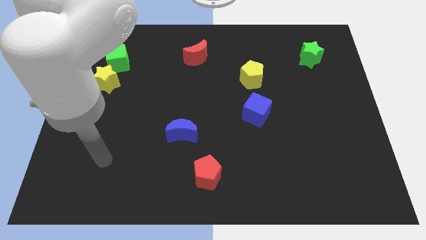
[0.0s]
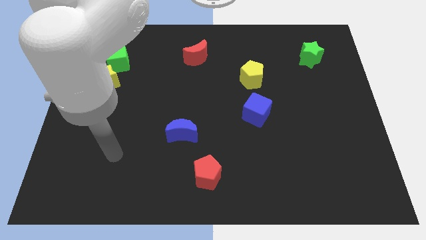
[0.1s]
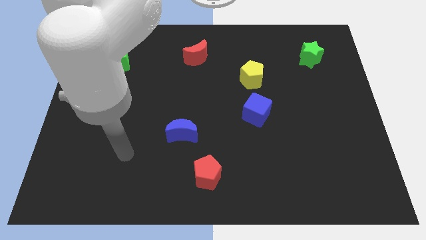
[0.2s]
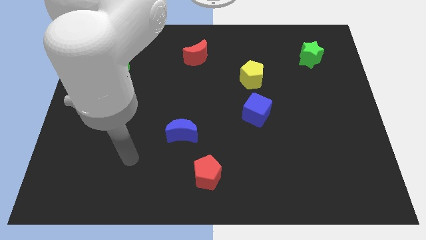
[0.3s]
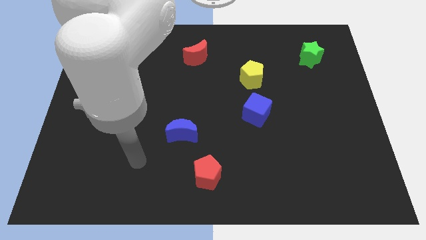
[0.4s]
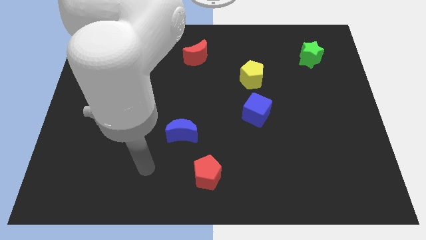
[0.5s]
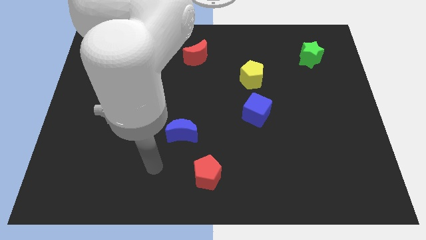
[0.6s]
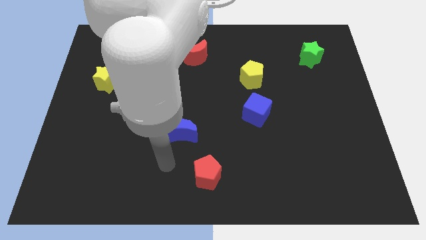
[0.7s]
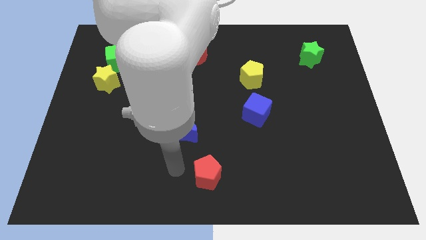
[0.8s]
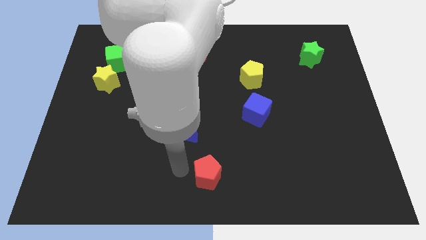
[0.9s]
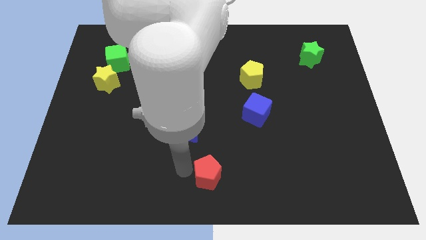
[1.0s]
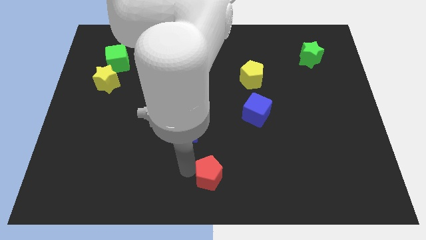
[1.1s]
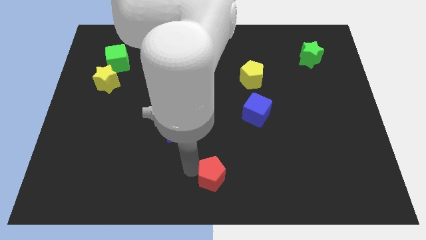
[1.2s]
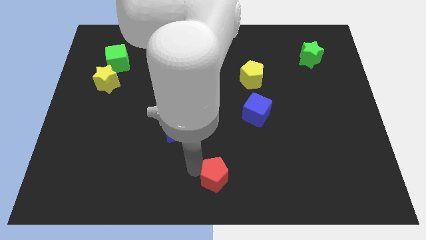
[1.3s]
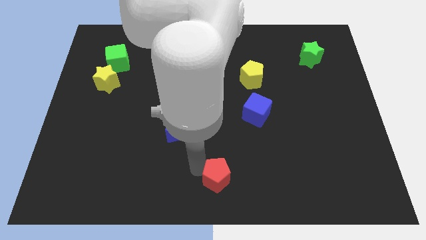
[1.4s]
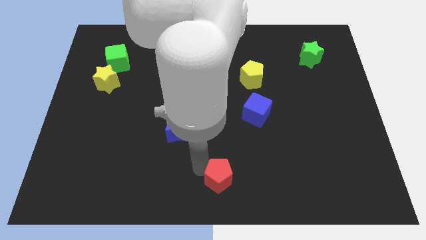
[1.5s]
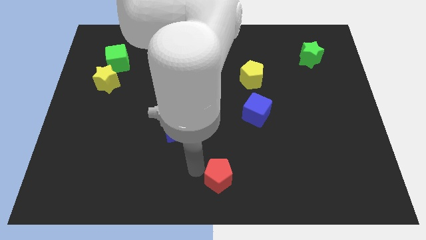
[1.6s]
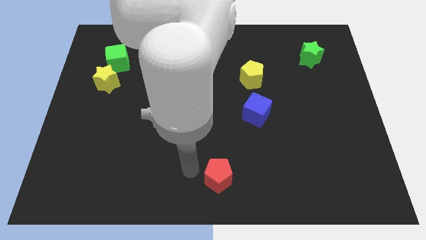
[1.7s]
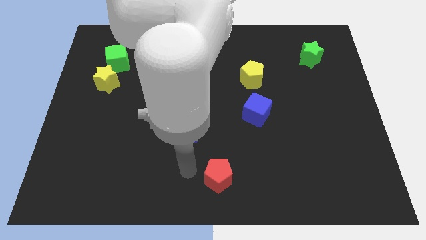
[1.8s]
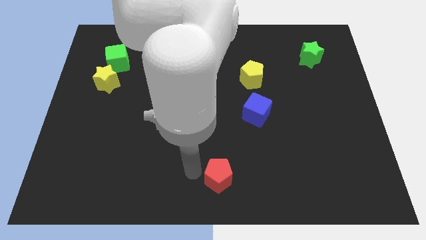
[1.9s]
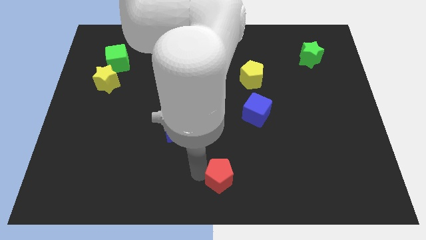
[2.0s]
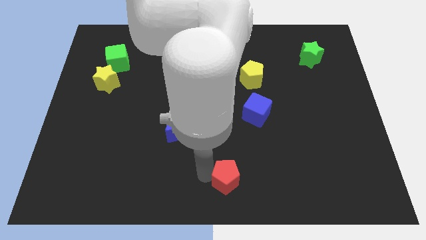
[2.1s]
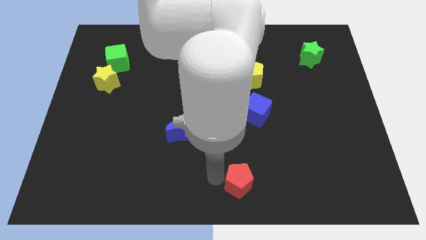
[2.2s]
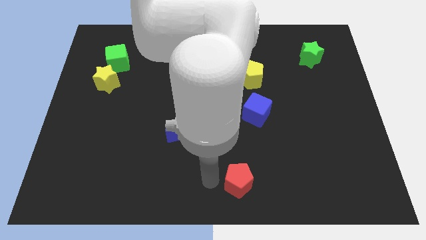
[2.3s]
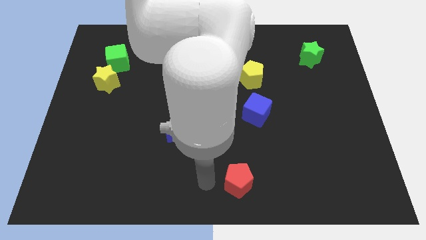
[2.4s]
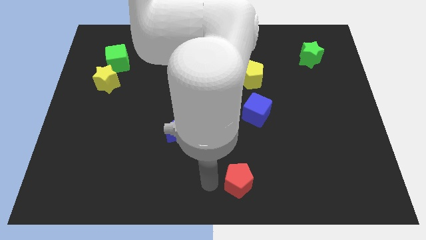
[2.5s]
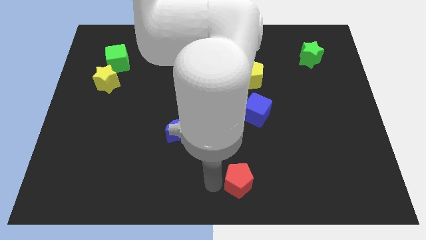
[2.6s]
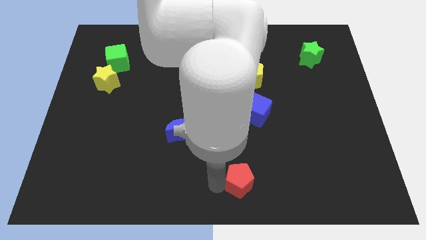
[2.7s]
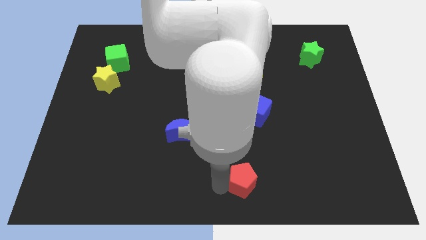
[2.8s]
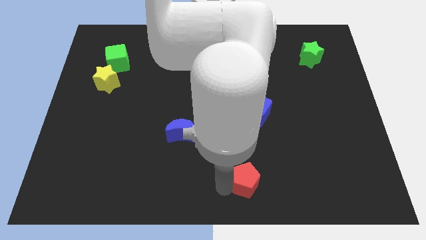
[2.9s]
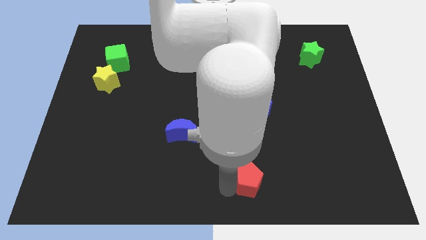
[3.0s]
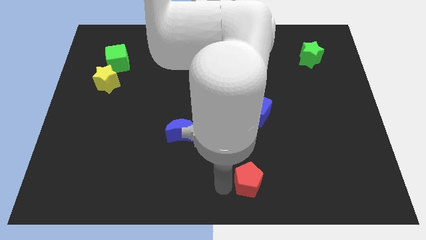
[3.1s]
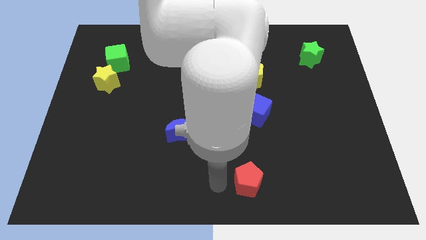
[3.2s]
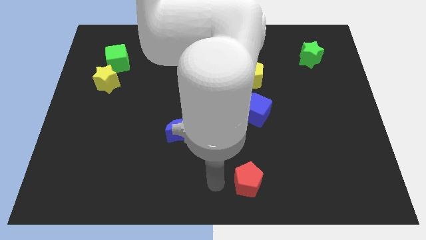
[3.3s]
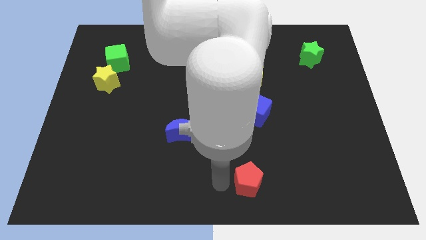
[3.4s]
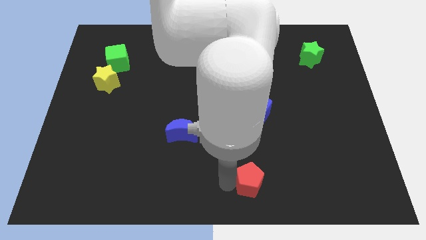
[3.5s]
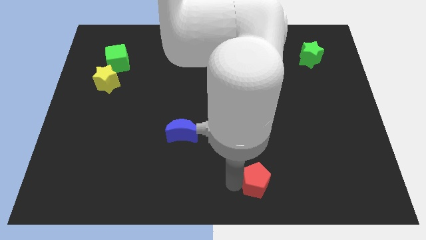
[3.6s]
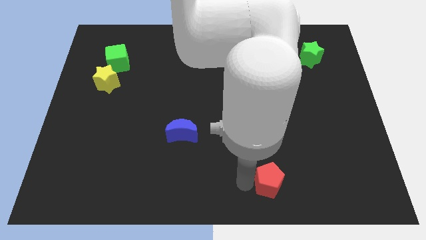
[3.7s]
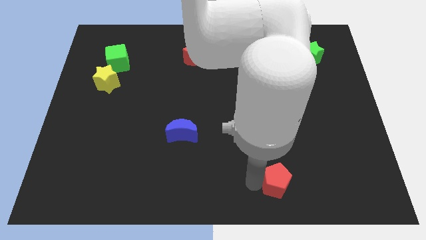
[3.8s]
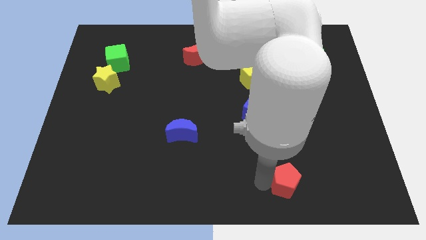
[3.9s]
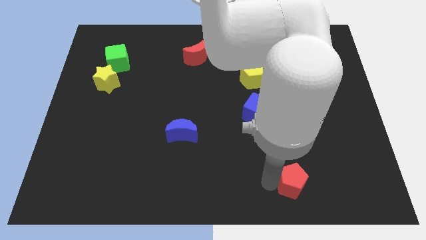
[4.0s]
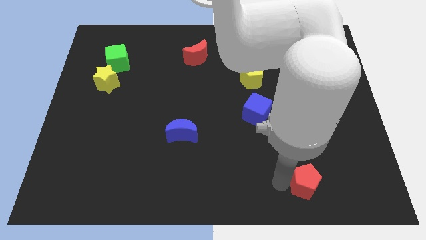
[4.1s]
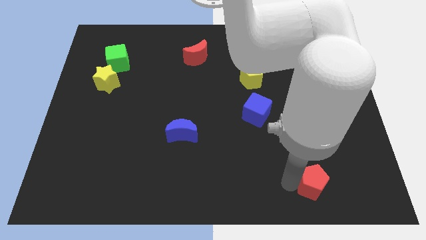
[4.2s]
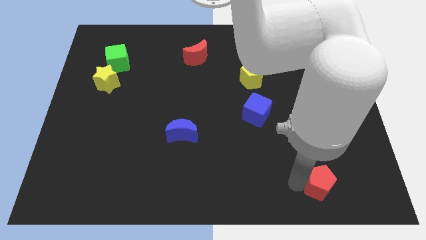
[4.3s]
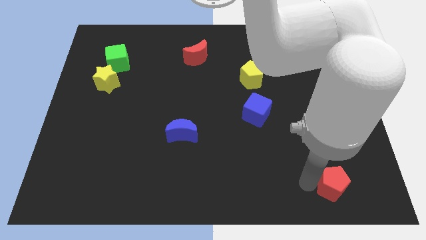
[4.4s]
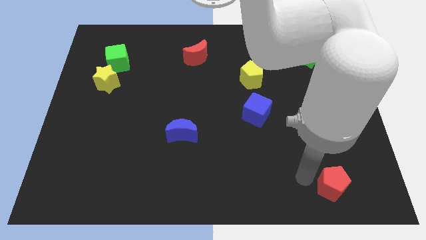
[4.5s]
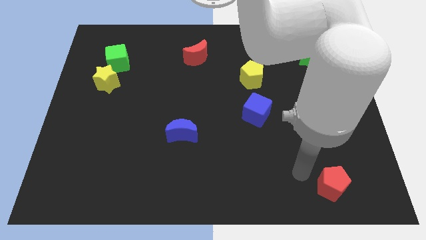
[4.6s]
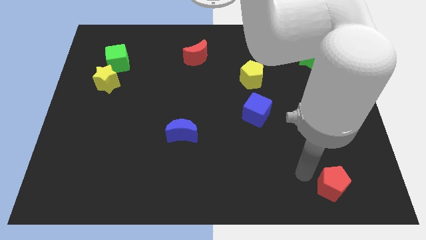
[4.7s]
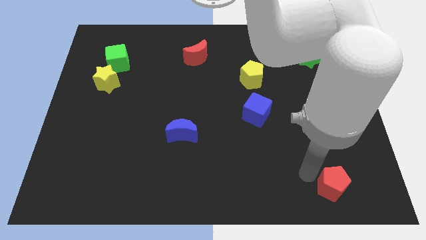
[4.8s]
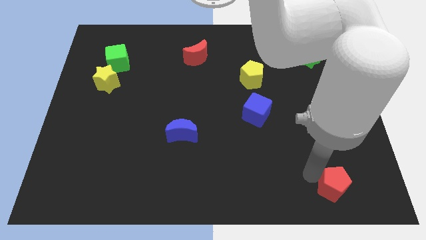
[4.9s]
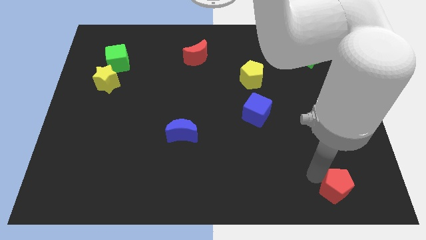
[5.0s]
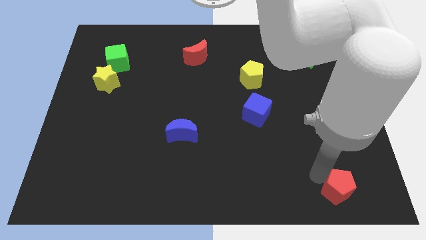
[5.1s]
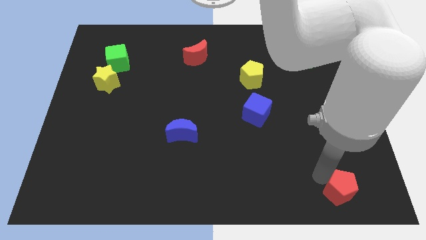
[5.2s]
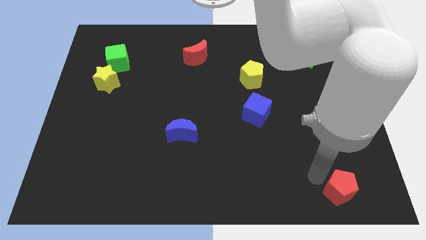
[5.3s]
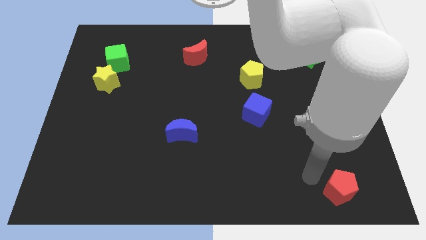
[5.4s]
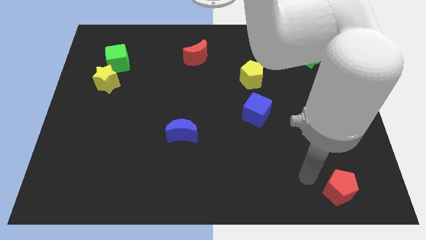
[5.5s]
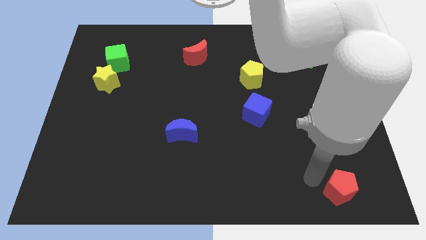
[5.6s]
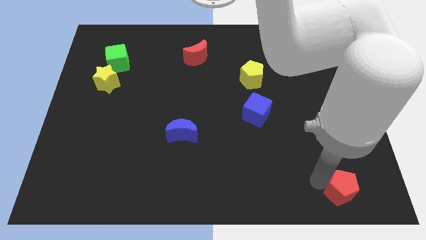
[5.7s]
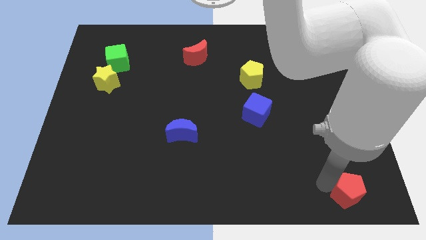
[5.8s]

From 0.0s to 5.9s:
slide the red pentagon to the bottom right

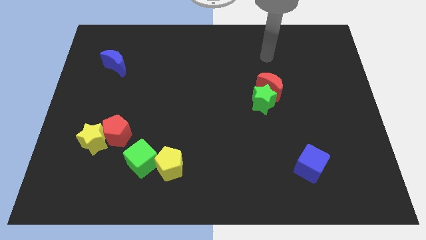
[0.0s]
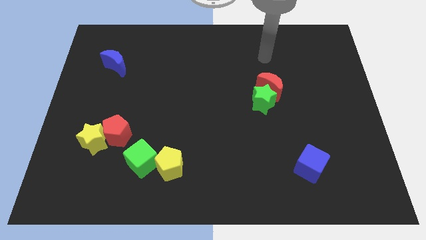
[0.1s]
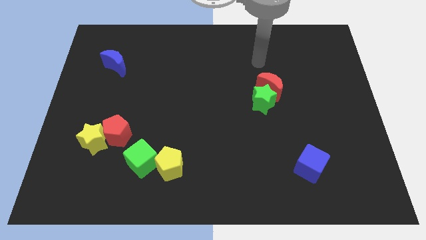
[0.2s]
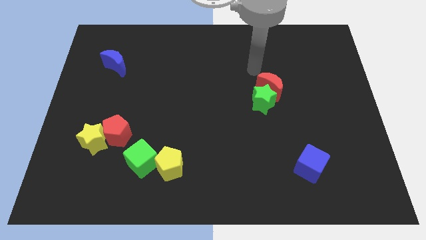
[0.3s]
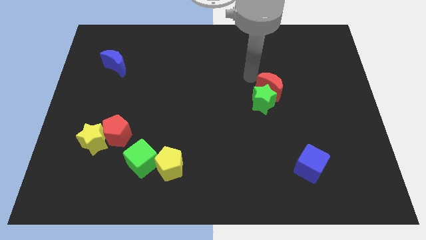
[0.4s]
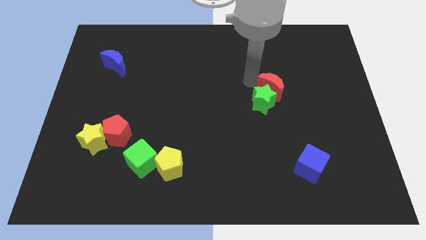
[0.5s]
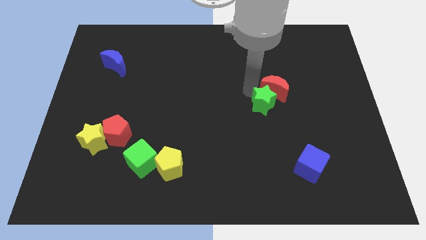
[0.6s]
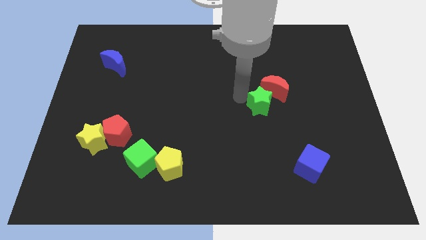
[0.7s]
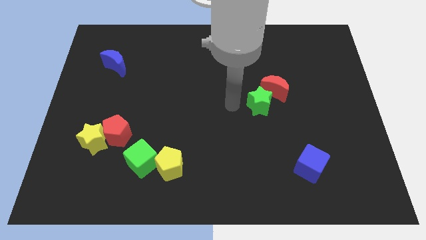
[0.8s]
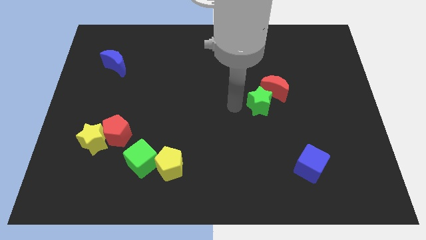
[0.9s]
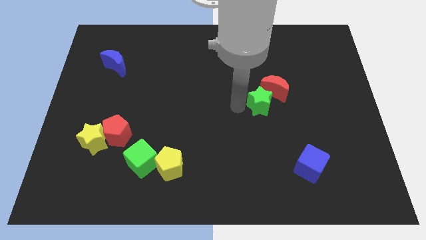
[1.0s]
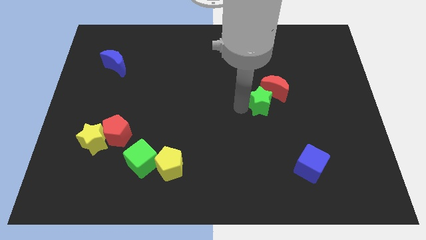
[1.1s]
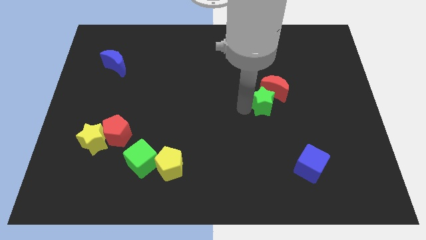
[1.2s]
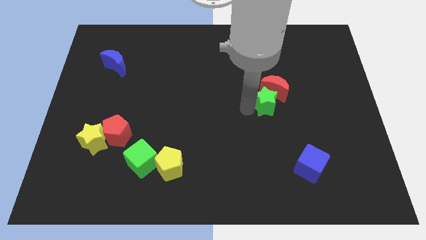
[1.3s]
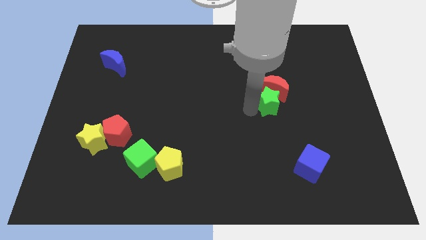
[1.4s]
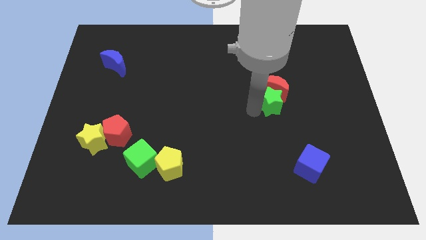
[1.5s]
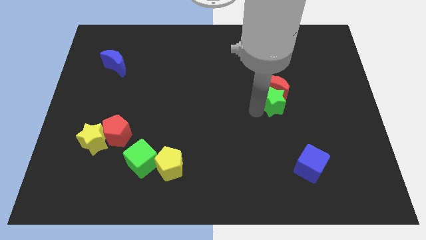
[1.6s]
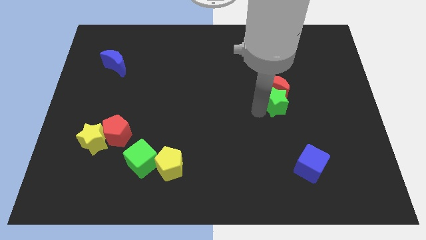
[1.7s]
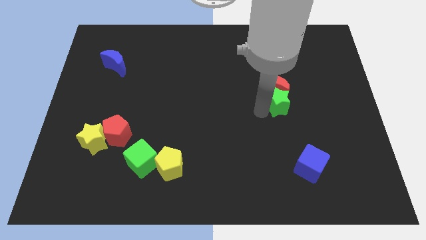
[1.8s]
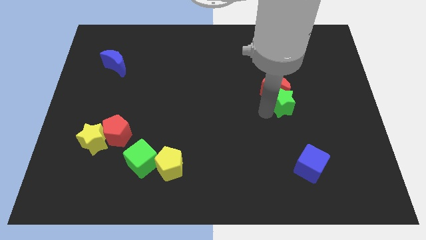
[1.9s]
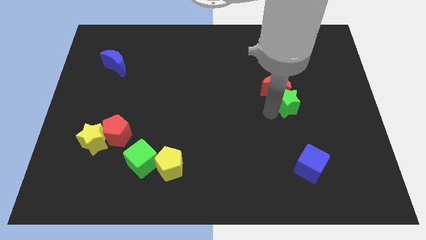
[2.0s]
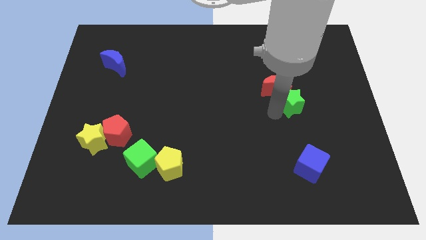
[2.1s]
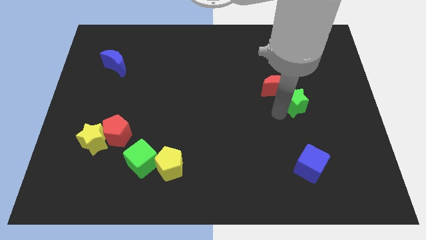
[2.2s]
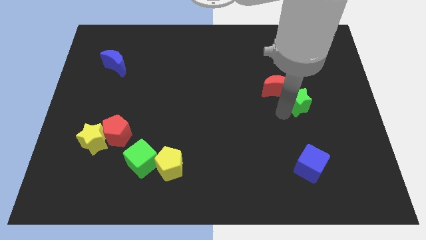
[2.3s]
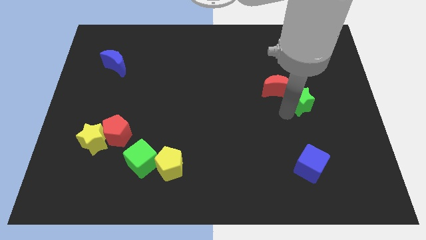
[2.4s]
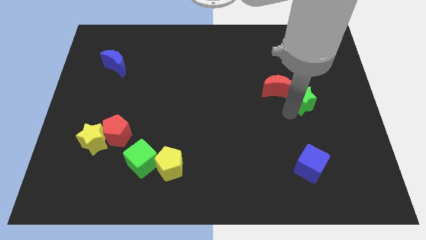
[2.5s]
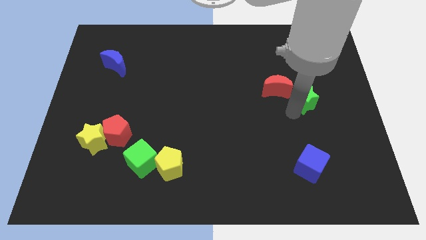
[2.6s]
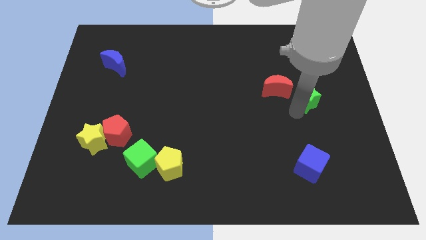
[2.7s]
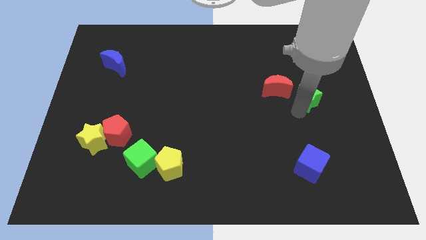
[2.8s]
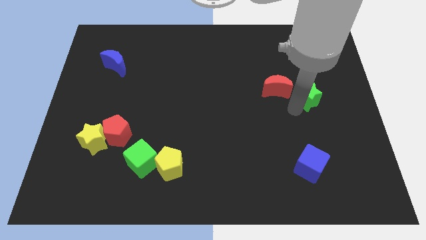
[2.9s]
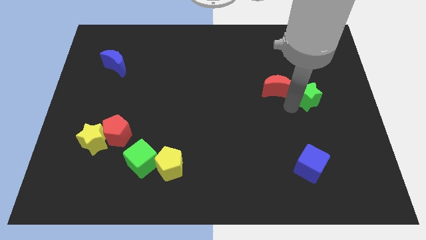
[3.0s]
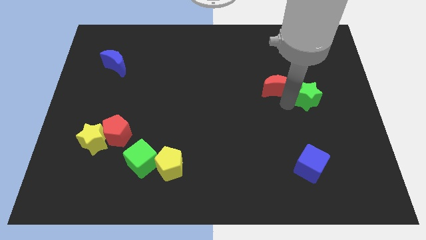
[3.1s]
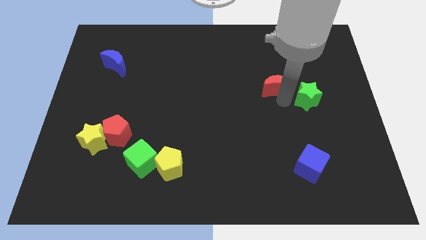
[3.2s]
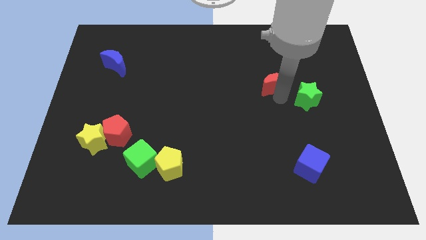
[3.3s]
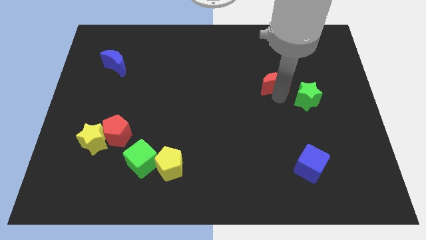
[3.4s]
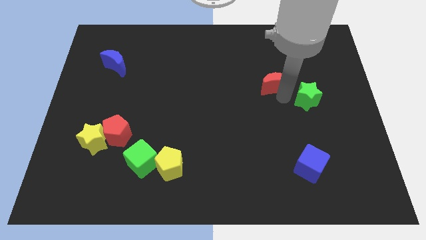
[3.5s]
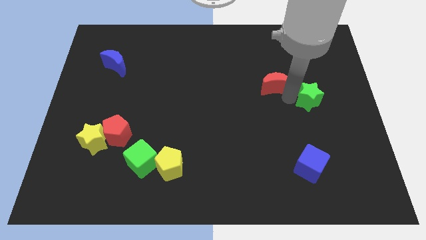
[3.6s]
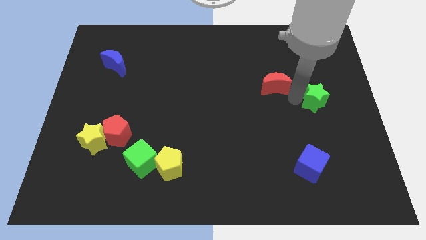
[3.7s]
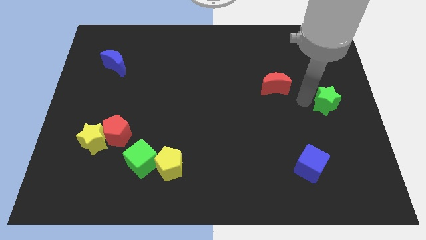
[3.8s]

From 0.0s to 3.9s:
put the green star to the right side
